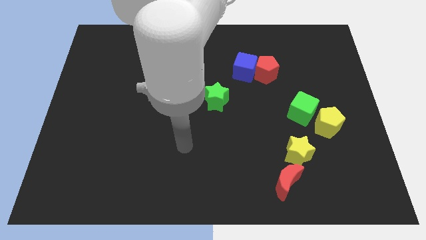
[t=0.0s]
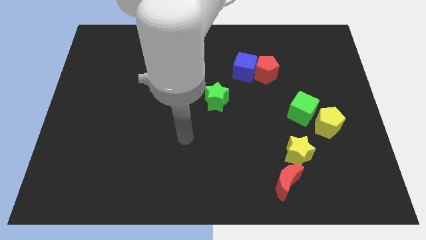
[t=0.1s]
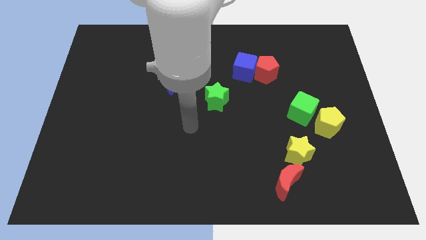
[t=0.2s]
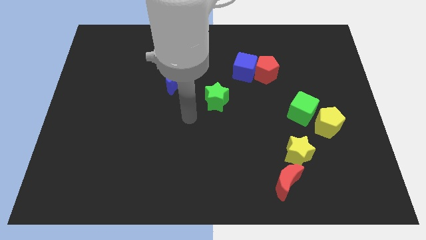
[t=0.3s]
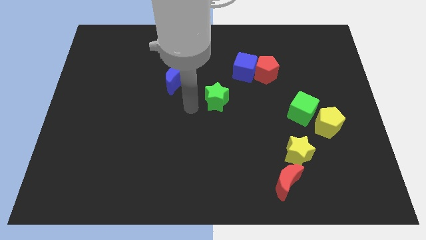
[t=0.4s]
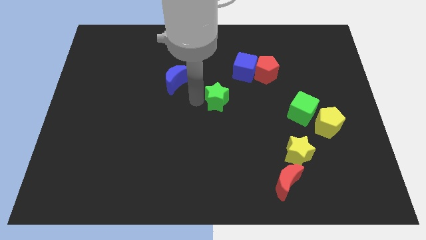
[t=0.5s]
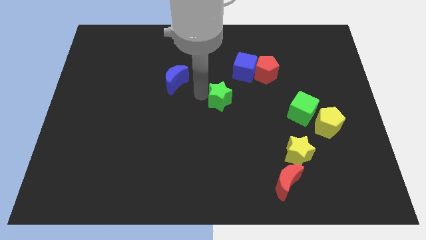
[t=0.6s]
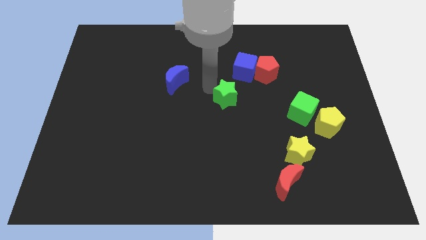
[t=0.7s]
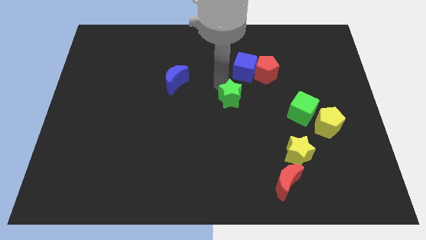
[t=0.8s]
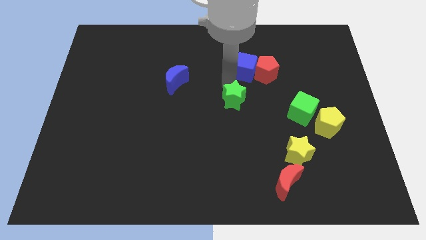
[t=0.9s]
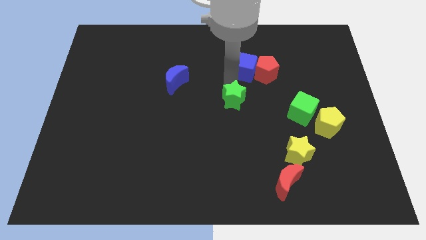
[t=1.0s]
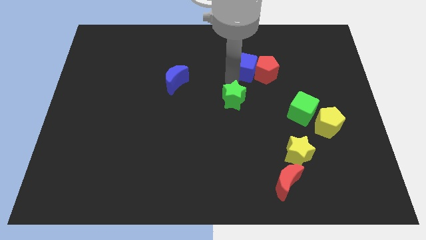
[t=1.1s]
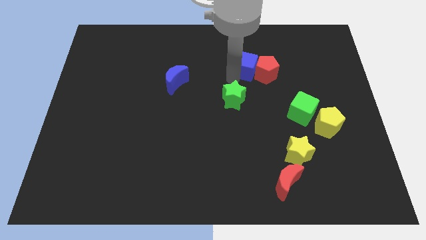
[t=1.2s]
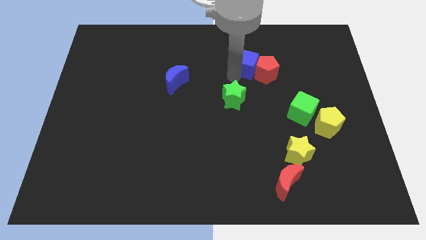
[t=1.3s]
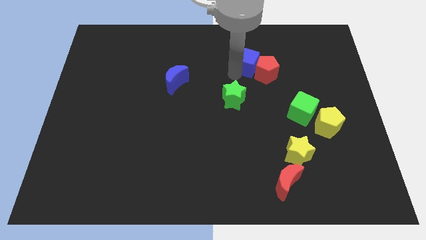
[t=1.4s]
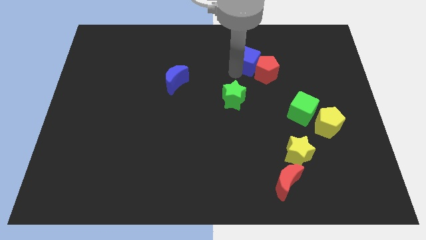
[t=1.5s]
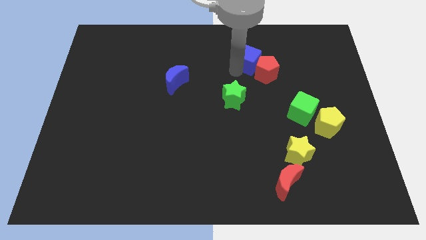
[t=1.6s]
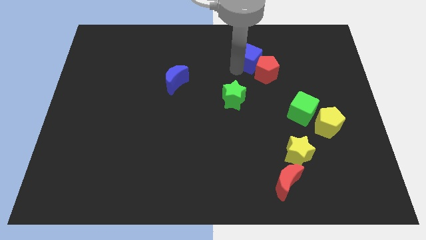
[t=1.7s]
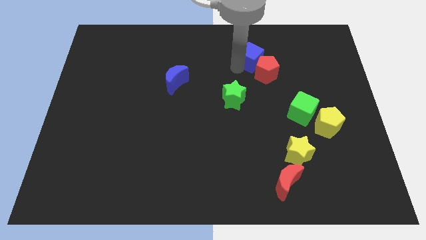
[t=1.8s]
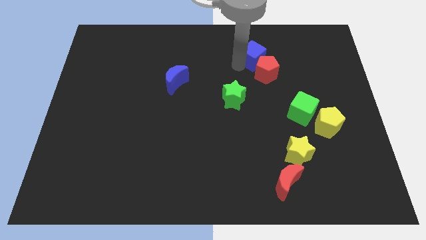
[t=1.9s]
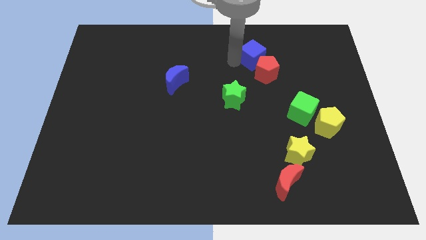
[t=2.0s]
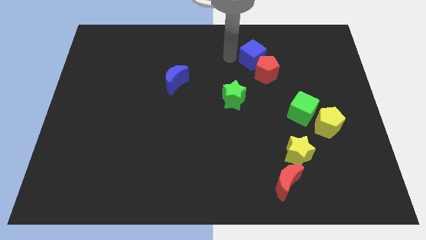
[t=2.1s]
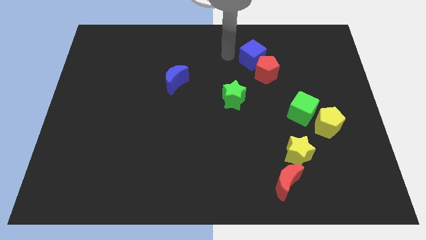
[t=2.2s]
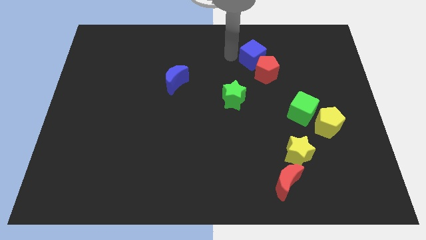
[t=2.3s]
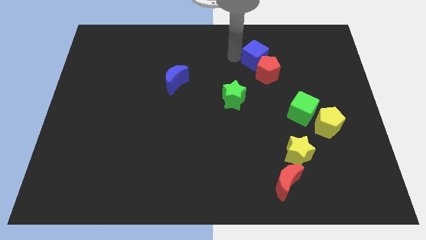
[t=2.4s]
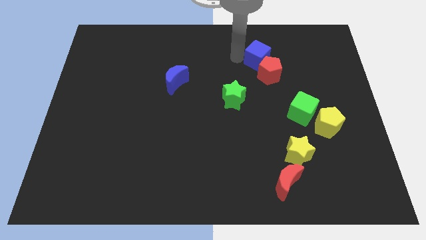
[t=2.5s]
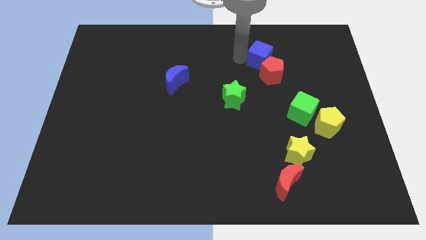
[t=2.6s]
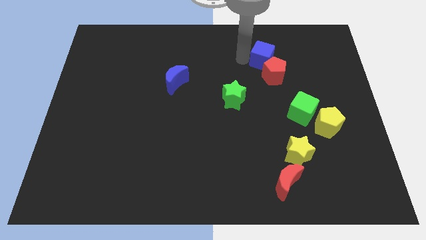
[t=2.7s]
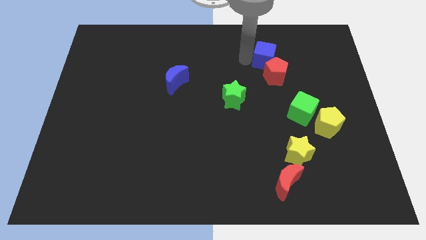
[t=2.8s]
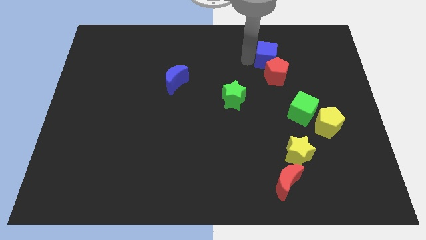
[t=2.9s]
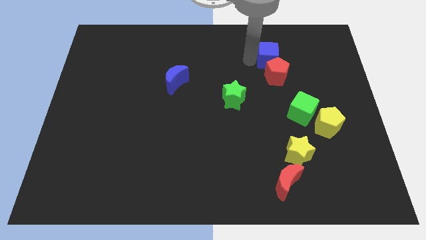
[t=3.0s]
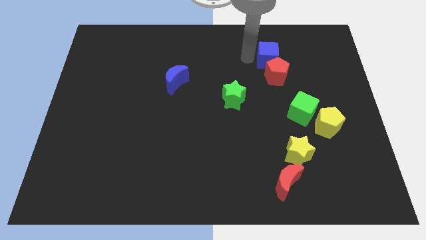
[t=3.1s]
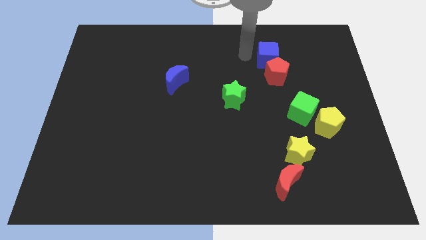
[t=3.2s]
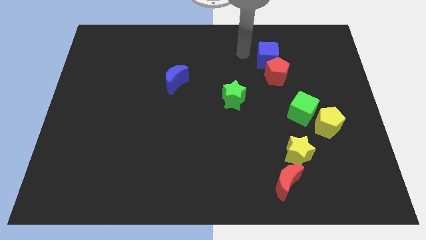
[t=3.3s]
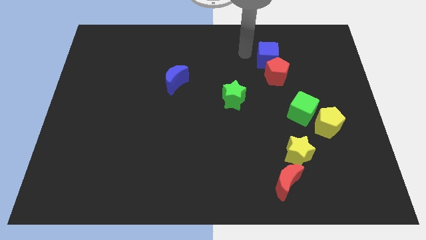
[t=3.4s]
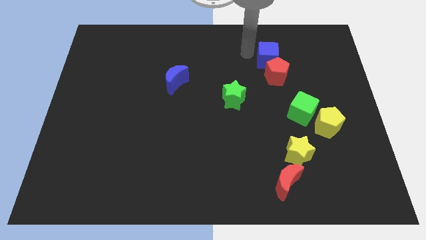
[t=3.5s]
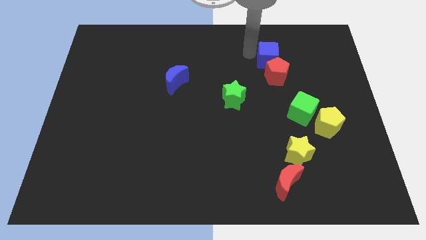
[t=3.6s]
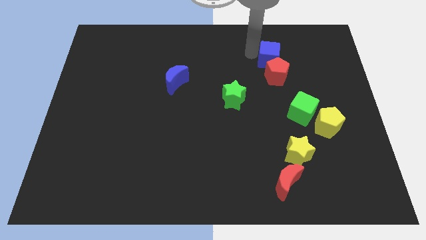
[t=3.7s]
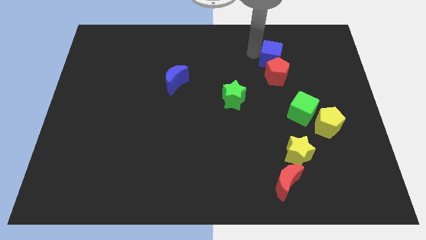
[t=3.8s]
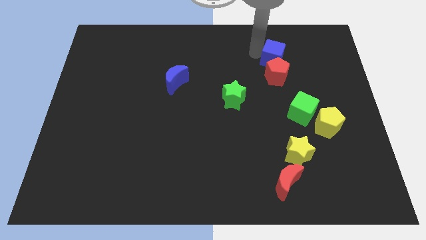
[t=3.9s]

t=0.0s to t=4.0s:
push the blue cube to the right a bit

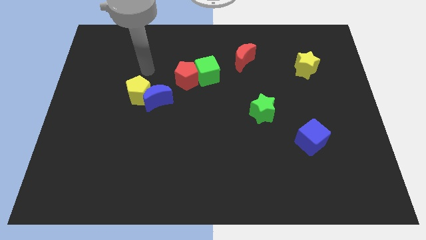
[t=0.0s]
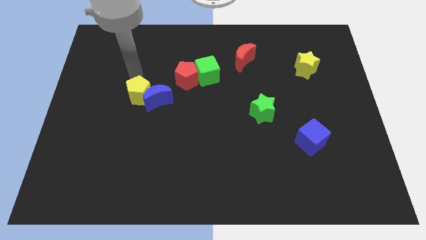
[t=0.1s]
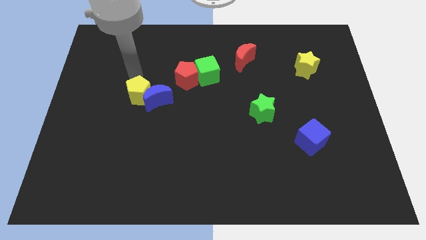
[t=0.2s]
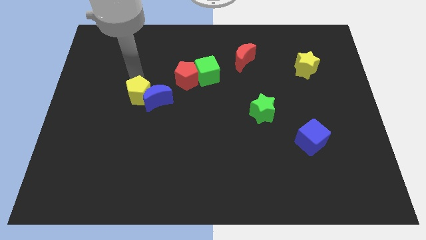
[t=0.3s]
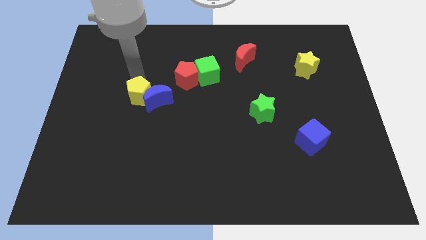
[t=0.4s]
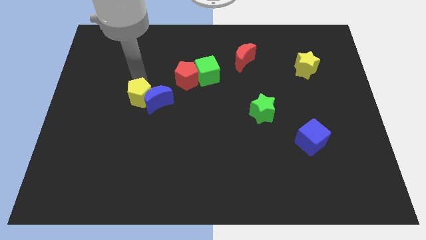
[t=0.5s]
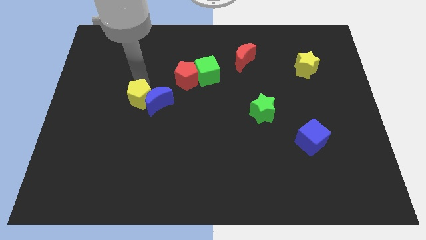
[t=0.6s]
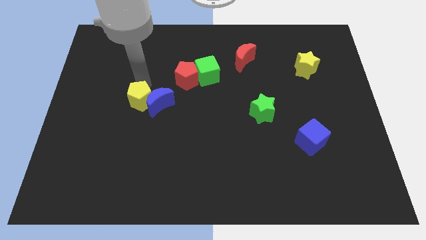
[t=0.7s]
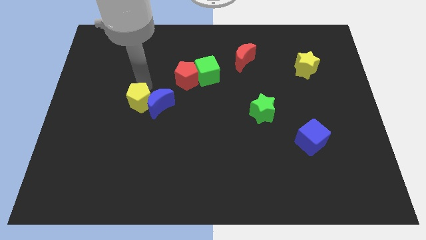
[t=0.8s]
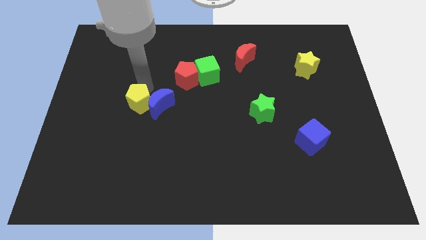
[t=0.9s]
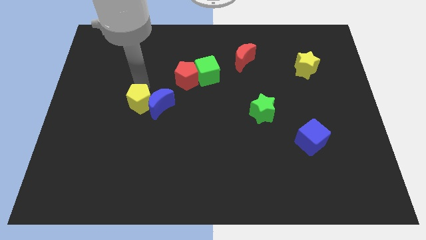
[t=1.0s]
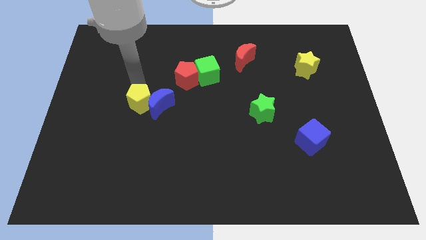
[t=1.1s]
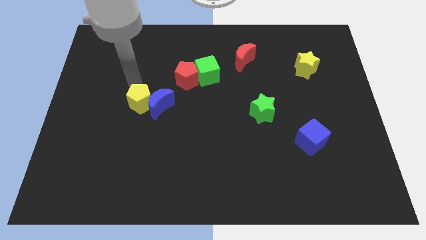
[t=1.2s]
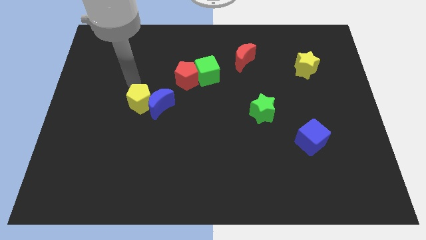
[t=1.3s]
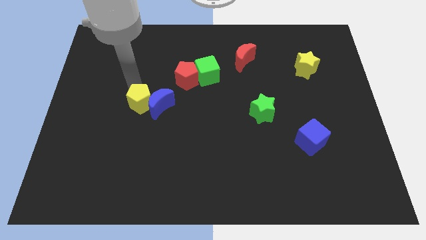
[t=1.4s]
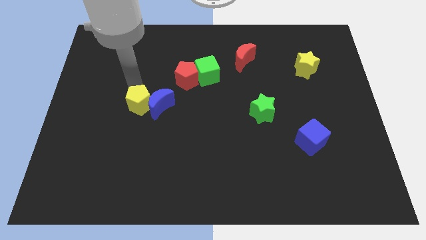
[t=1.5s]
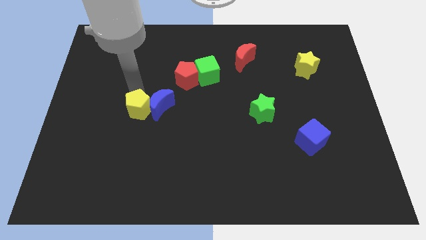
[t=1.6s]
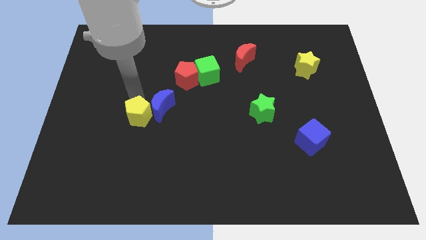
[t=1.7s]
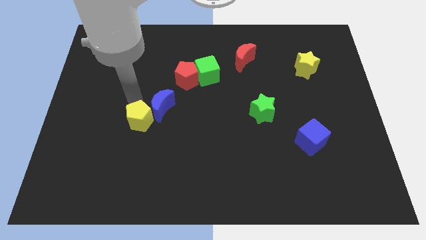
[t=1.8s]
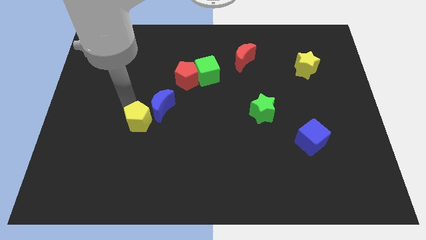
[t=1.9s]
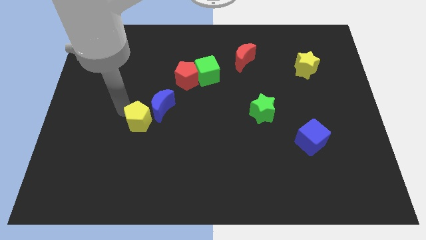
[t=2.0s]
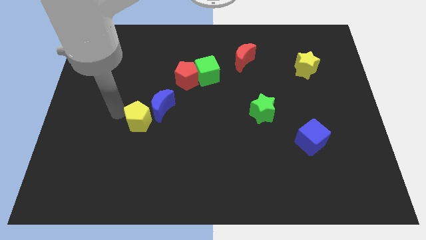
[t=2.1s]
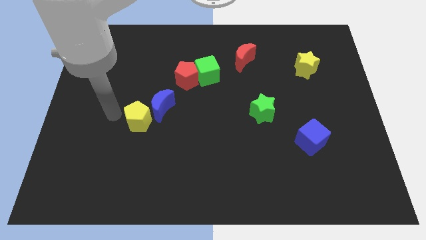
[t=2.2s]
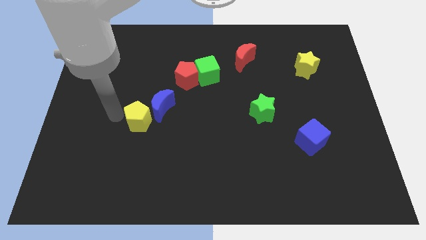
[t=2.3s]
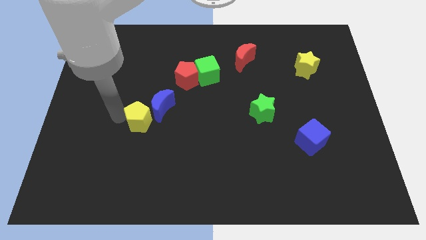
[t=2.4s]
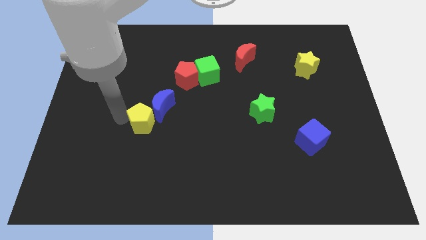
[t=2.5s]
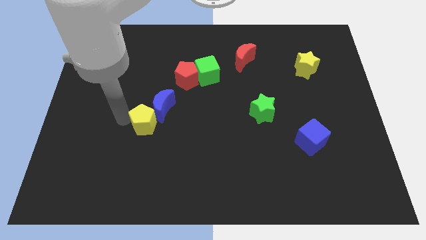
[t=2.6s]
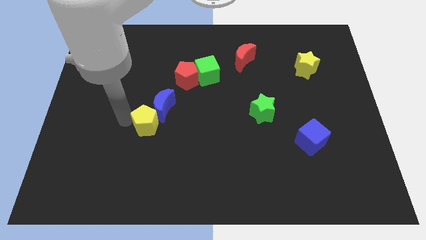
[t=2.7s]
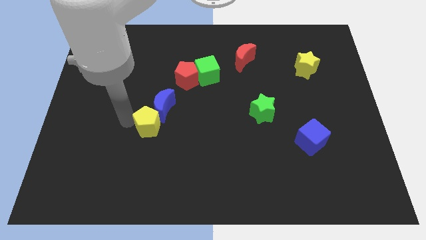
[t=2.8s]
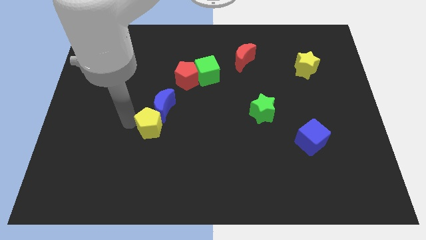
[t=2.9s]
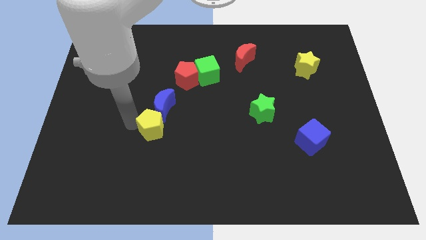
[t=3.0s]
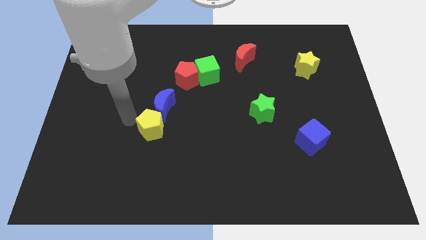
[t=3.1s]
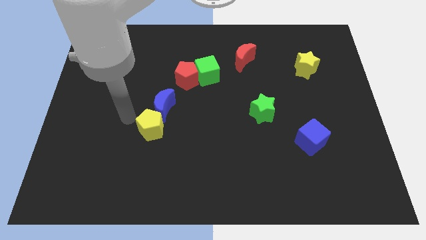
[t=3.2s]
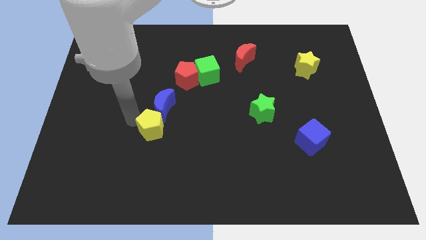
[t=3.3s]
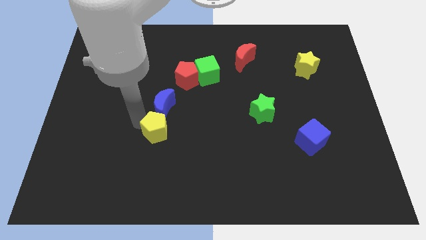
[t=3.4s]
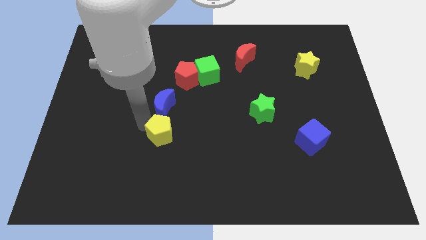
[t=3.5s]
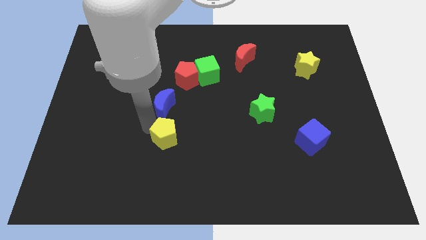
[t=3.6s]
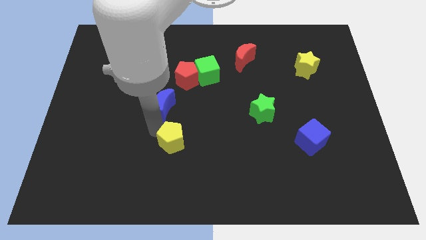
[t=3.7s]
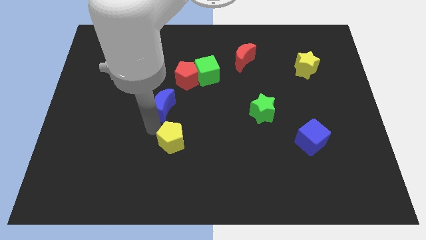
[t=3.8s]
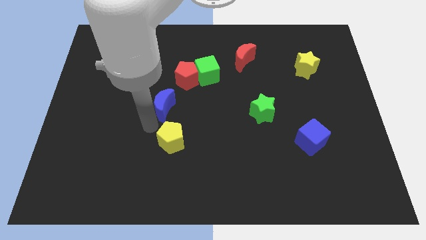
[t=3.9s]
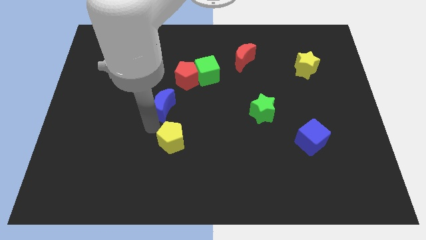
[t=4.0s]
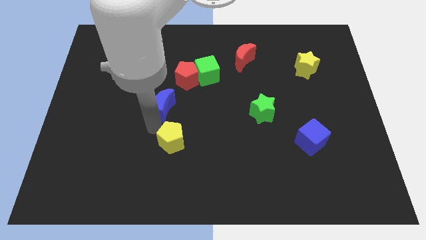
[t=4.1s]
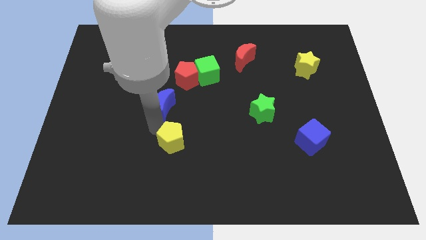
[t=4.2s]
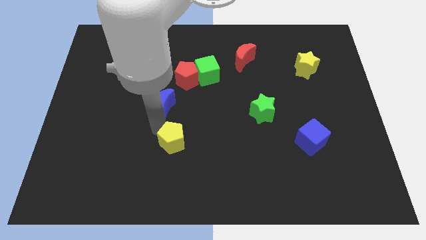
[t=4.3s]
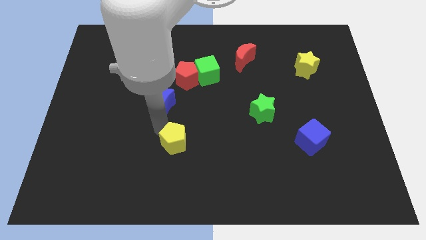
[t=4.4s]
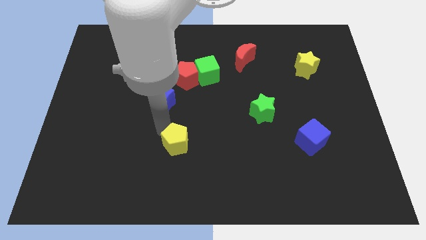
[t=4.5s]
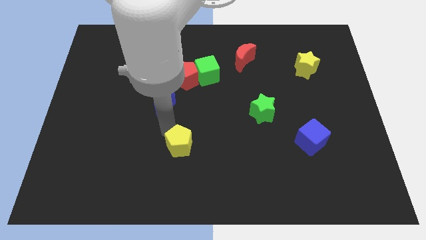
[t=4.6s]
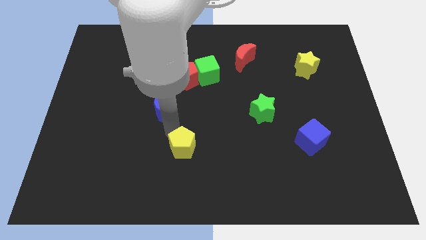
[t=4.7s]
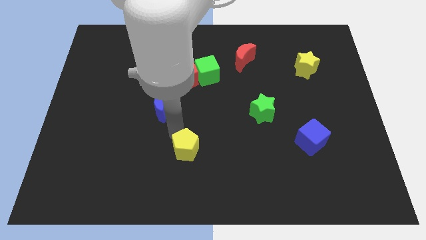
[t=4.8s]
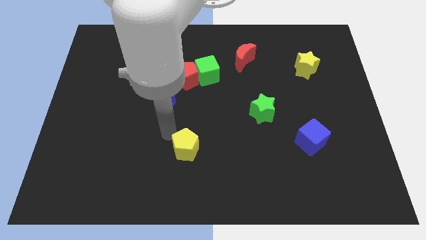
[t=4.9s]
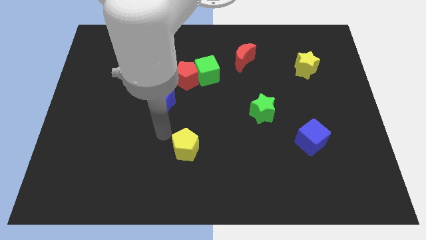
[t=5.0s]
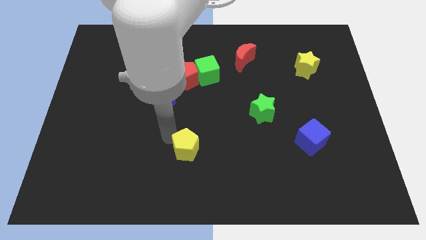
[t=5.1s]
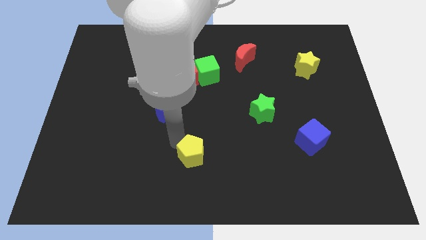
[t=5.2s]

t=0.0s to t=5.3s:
push the yellow pentagon diagonally downwards and to the right
